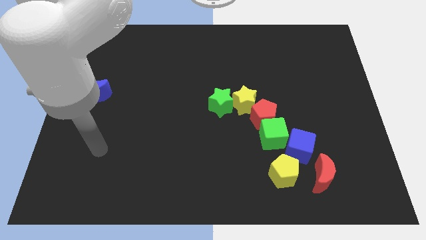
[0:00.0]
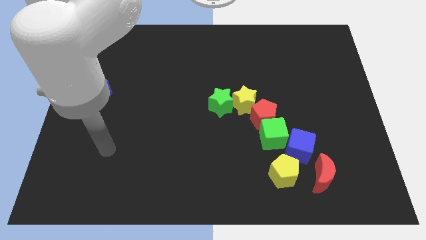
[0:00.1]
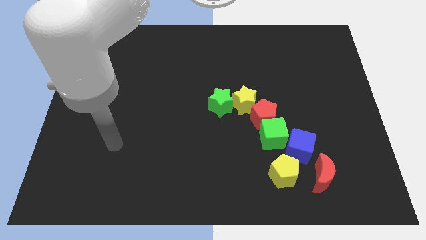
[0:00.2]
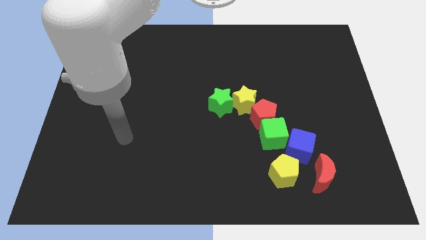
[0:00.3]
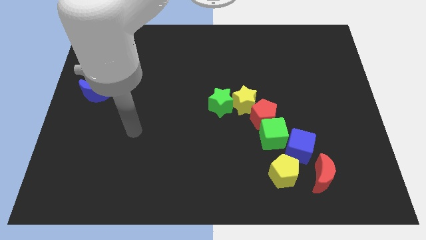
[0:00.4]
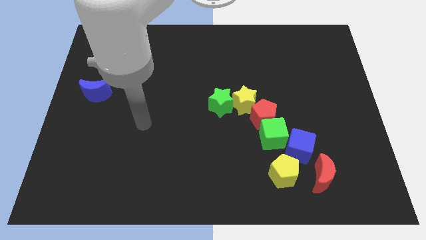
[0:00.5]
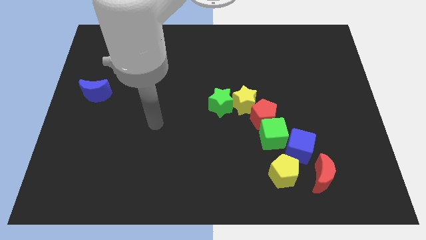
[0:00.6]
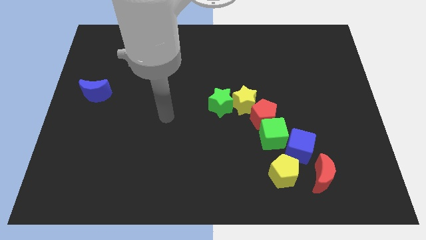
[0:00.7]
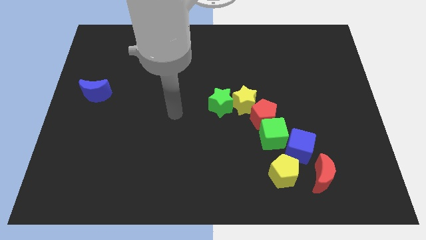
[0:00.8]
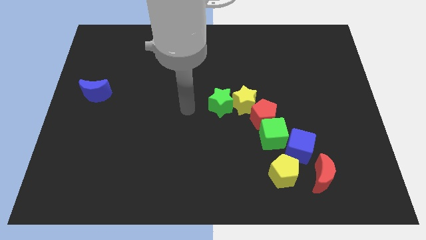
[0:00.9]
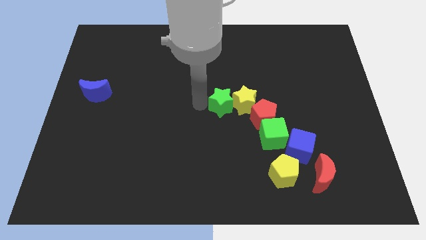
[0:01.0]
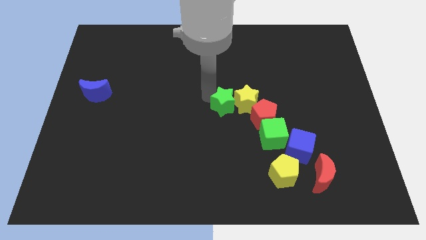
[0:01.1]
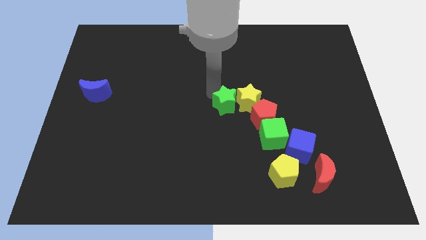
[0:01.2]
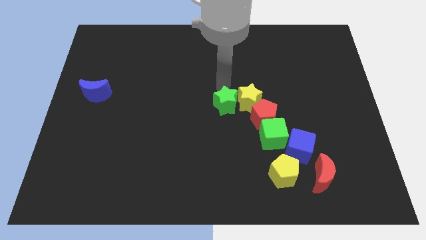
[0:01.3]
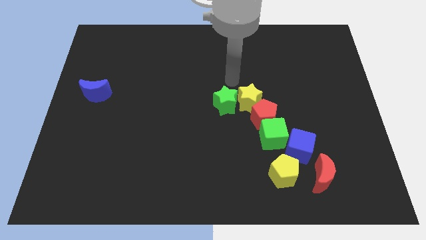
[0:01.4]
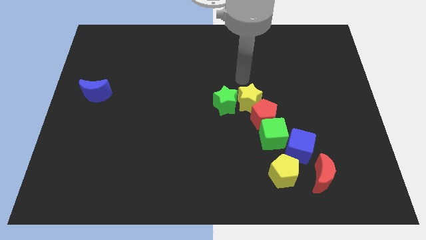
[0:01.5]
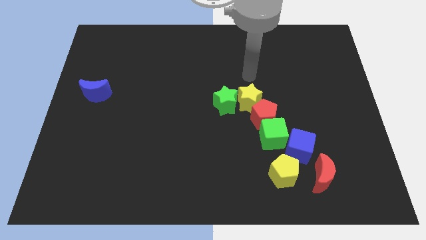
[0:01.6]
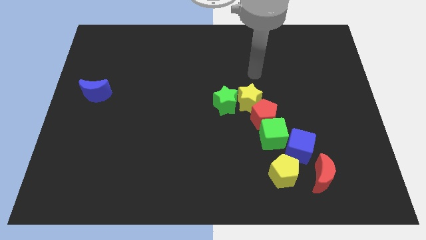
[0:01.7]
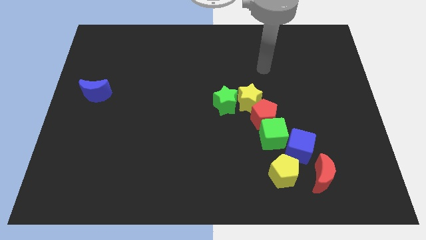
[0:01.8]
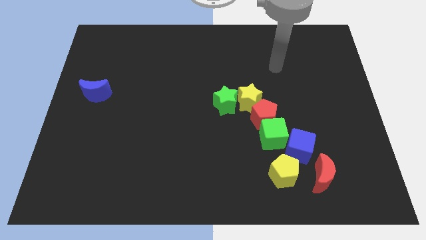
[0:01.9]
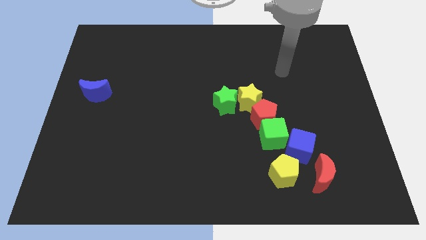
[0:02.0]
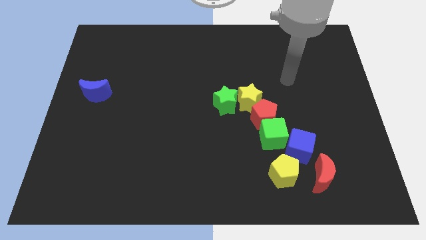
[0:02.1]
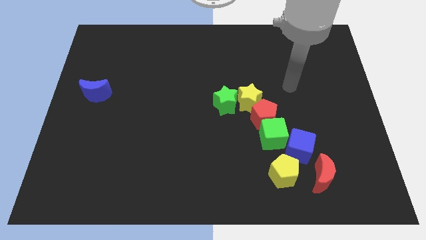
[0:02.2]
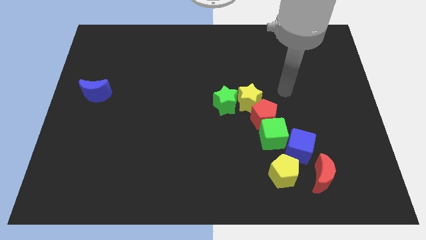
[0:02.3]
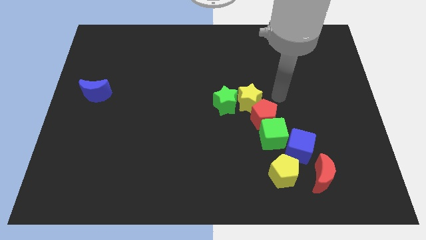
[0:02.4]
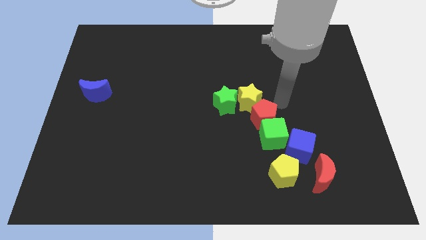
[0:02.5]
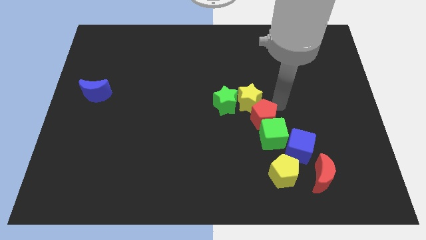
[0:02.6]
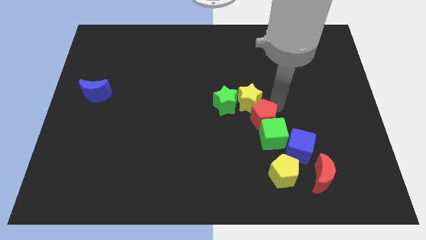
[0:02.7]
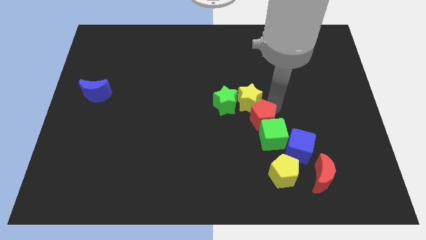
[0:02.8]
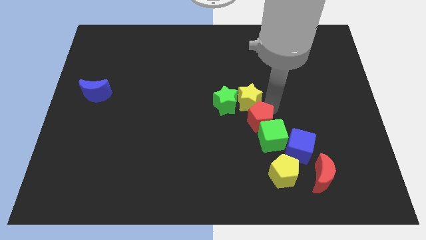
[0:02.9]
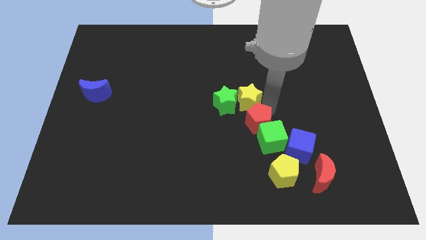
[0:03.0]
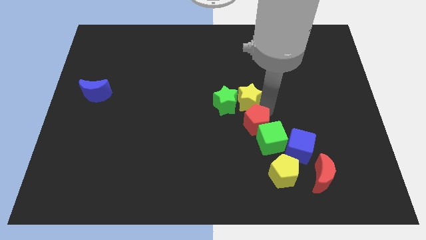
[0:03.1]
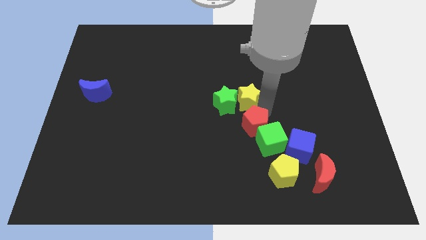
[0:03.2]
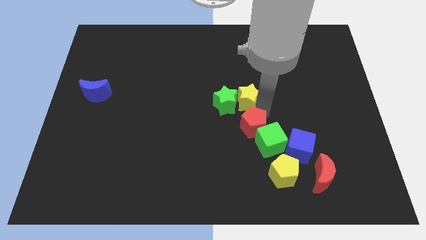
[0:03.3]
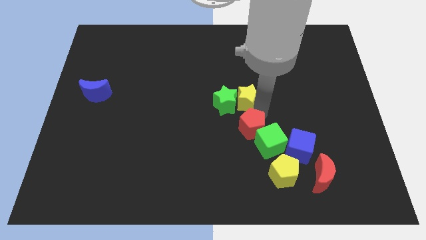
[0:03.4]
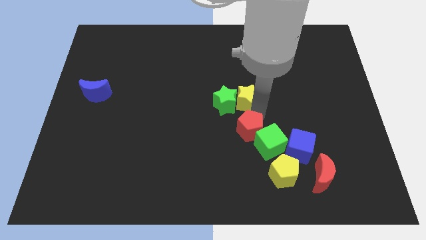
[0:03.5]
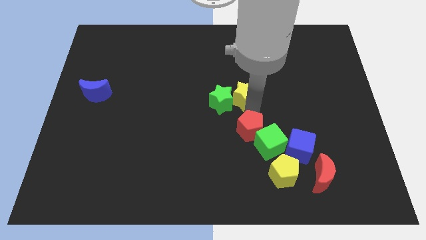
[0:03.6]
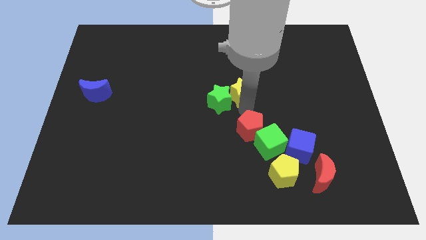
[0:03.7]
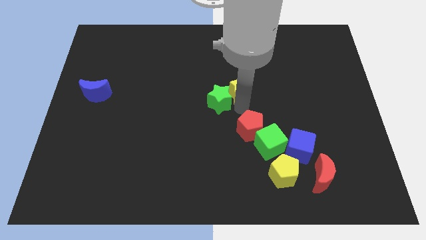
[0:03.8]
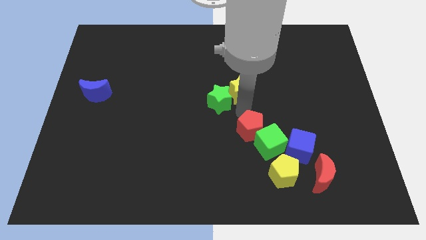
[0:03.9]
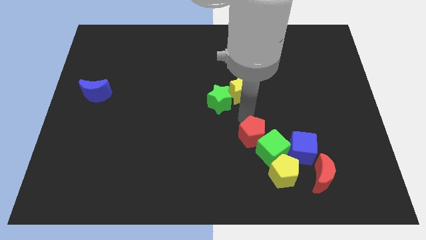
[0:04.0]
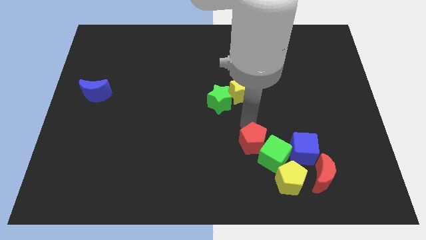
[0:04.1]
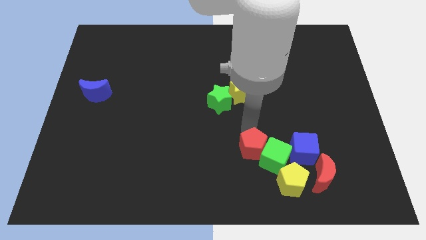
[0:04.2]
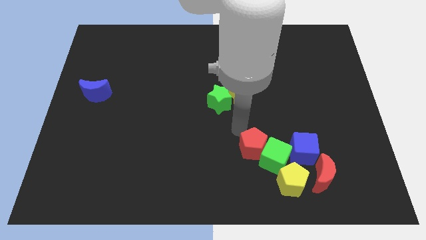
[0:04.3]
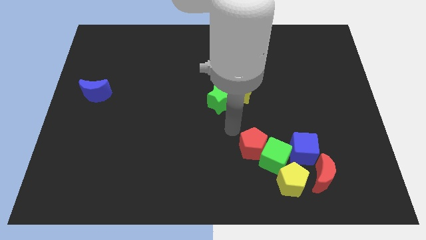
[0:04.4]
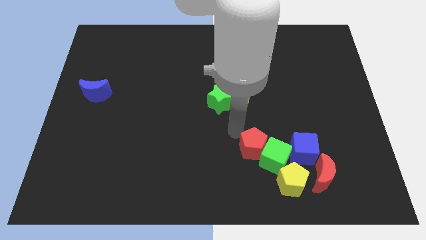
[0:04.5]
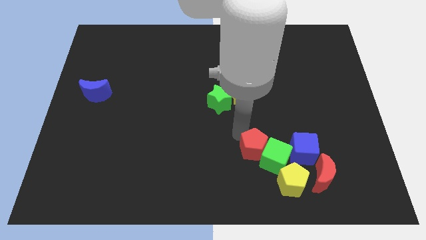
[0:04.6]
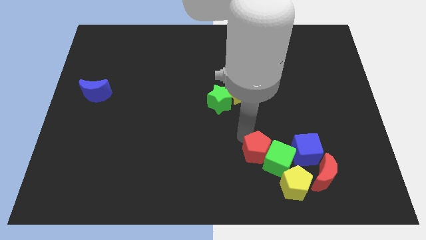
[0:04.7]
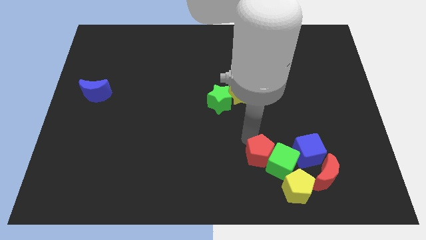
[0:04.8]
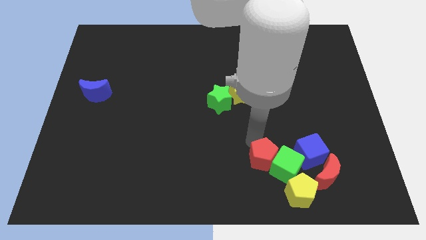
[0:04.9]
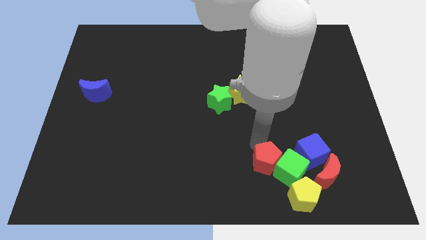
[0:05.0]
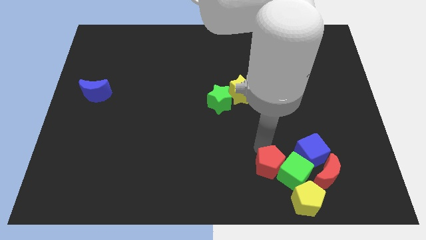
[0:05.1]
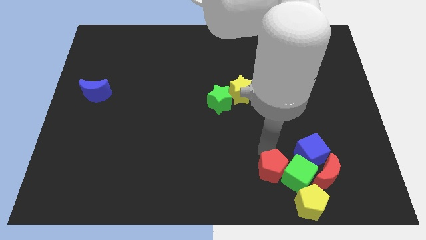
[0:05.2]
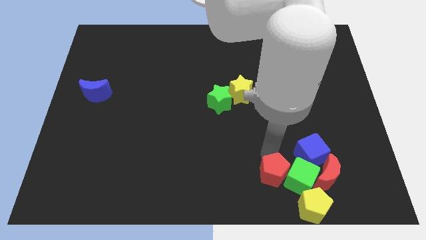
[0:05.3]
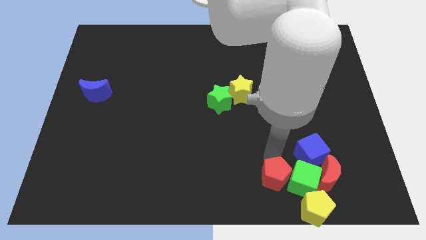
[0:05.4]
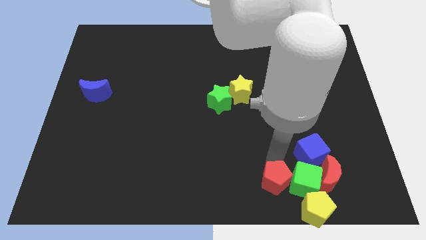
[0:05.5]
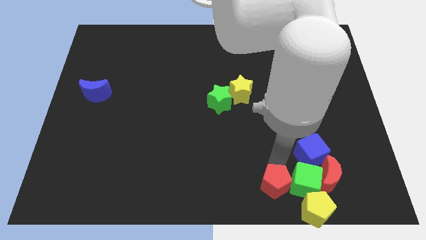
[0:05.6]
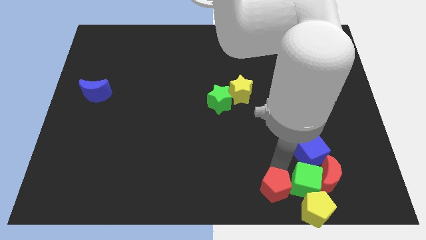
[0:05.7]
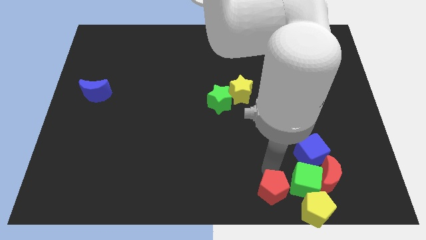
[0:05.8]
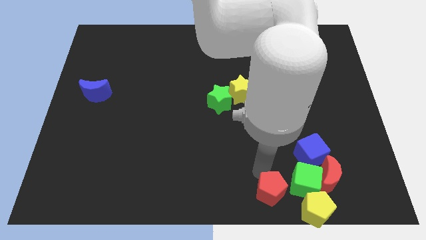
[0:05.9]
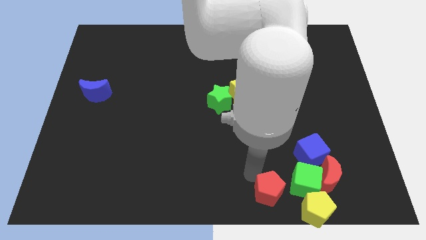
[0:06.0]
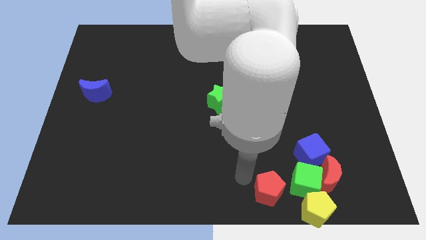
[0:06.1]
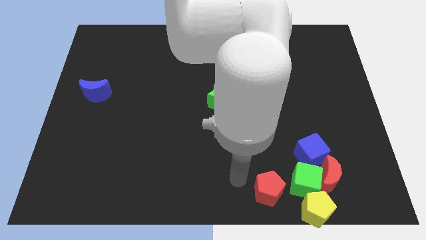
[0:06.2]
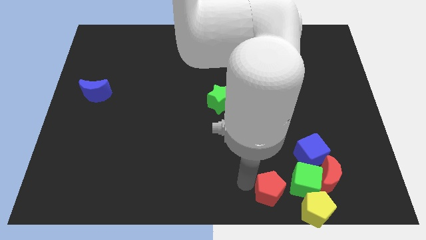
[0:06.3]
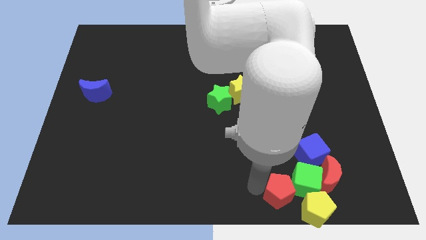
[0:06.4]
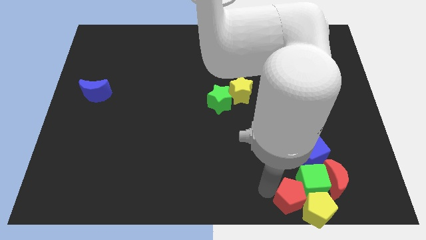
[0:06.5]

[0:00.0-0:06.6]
push the red pentagon close to the yellow pentagon
